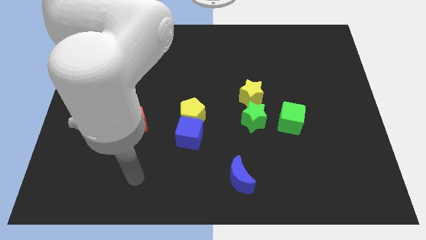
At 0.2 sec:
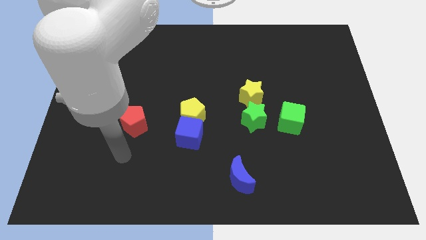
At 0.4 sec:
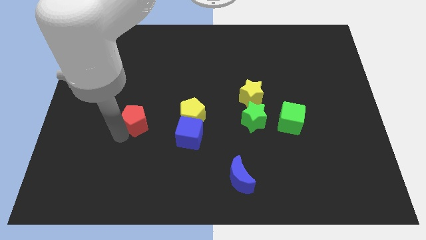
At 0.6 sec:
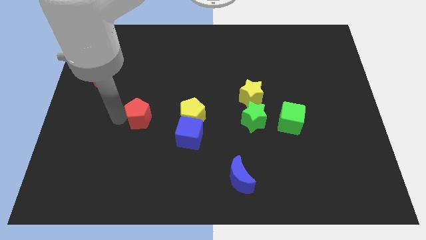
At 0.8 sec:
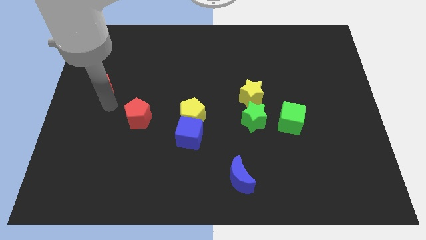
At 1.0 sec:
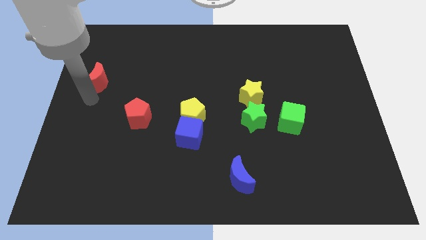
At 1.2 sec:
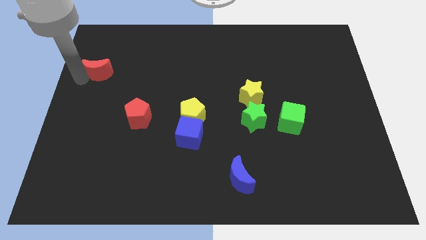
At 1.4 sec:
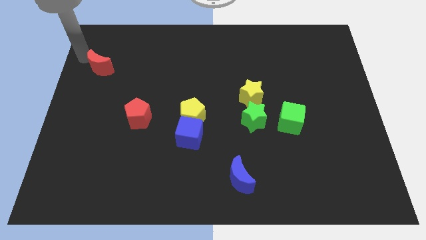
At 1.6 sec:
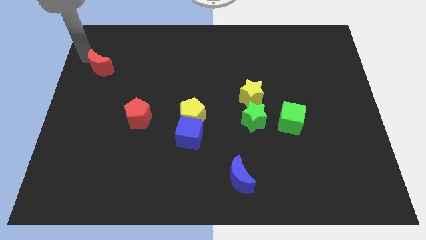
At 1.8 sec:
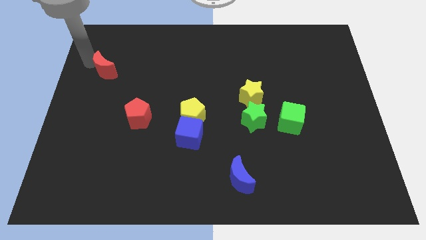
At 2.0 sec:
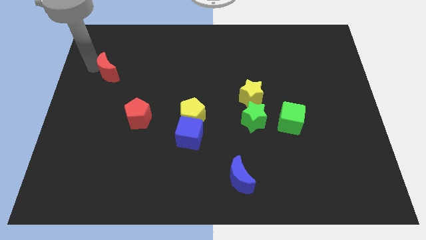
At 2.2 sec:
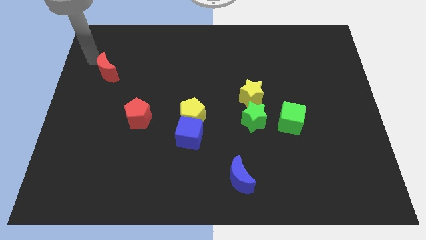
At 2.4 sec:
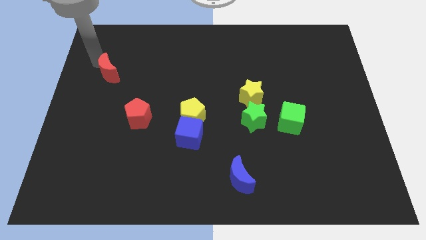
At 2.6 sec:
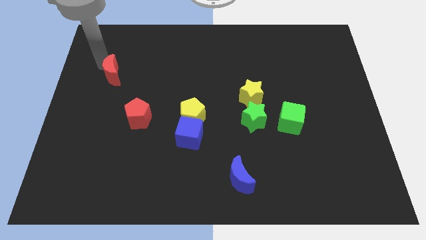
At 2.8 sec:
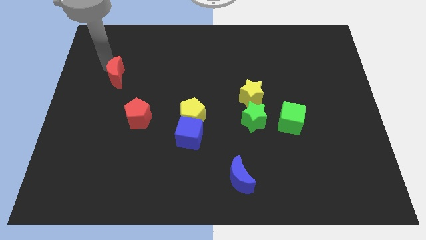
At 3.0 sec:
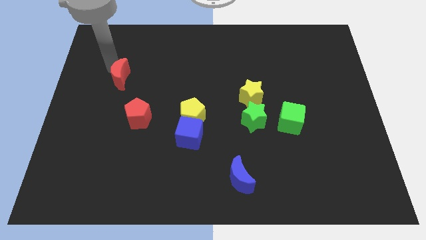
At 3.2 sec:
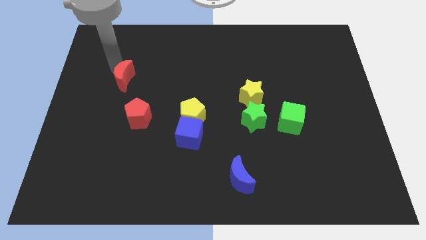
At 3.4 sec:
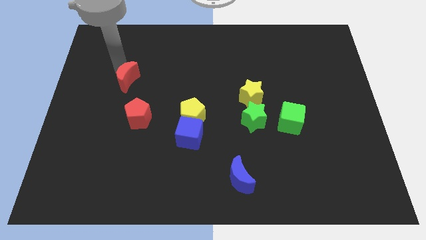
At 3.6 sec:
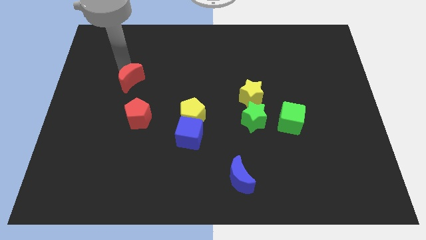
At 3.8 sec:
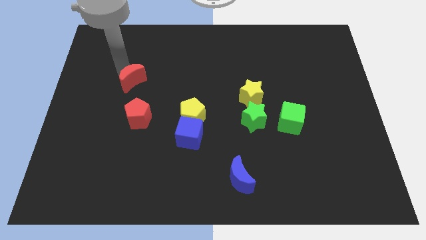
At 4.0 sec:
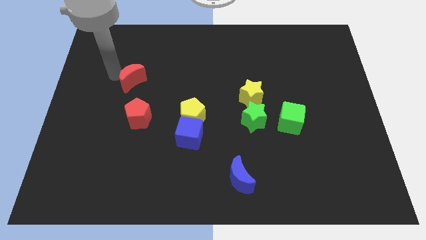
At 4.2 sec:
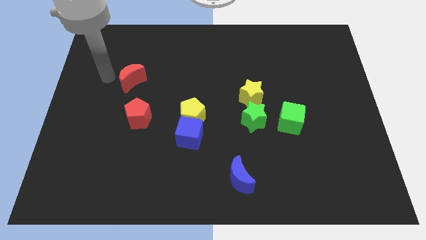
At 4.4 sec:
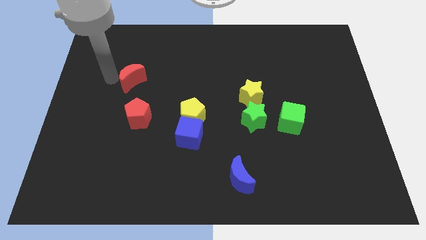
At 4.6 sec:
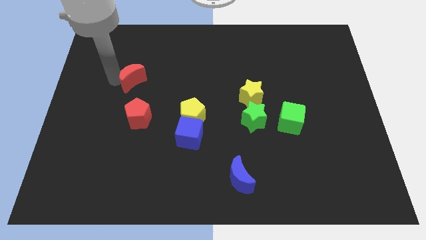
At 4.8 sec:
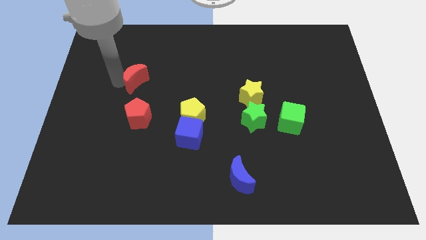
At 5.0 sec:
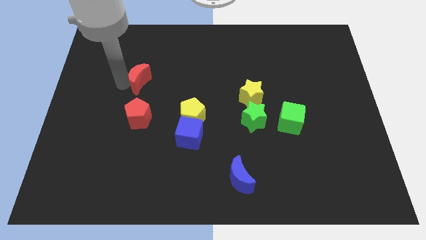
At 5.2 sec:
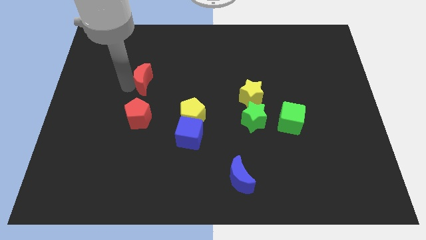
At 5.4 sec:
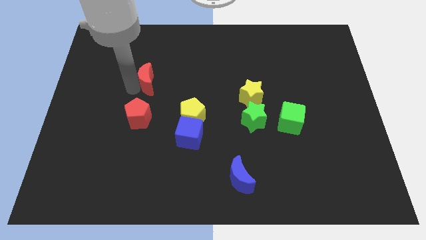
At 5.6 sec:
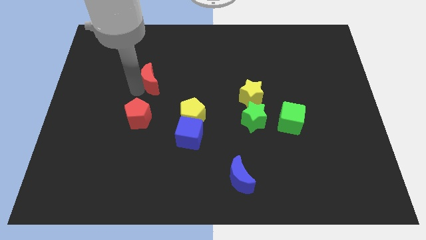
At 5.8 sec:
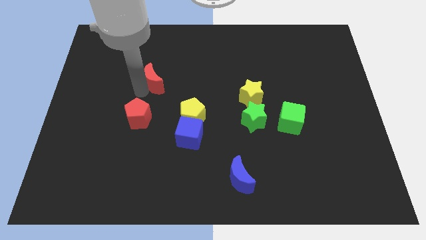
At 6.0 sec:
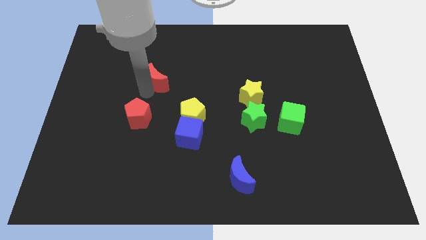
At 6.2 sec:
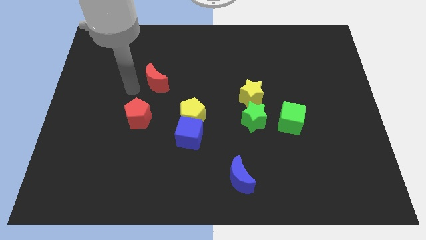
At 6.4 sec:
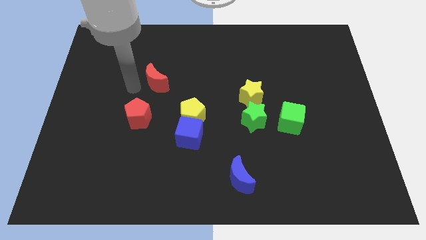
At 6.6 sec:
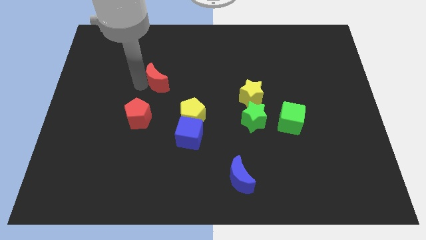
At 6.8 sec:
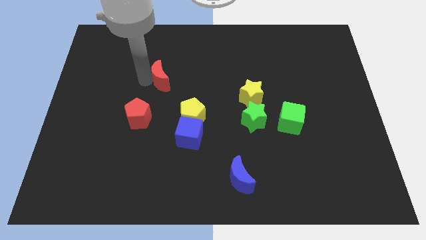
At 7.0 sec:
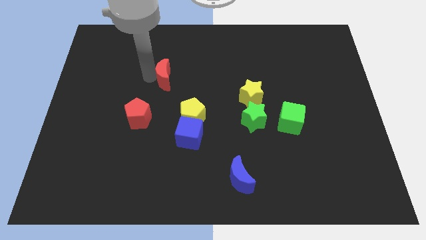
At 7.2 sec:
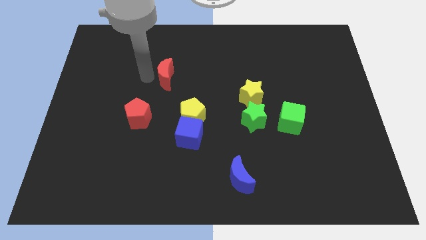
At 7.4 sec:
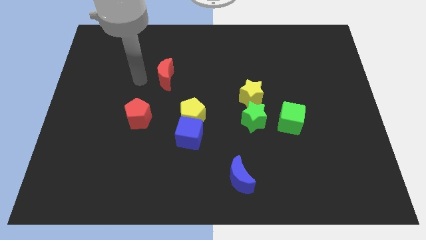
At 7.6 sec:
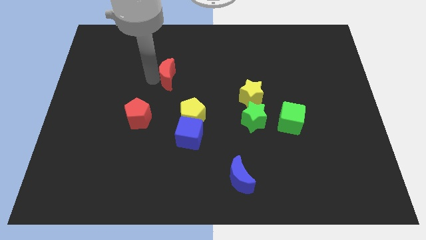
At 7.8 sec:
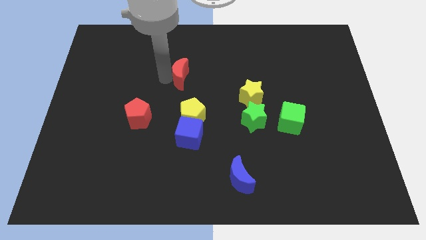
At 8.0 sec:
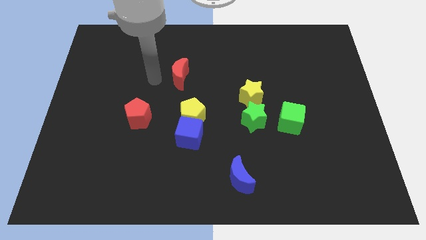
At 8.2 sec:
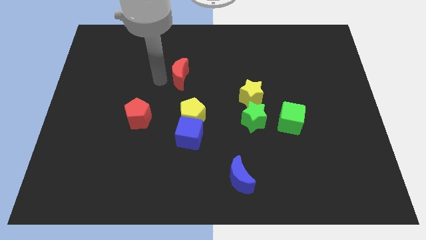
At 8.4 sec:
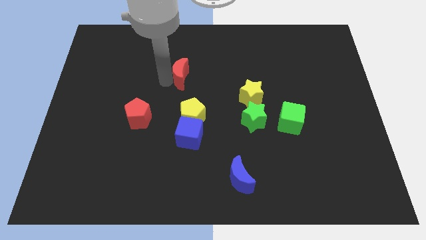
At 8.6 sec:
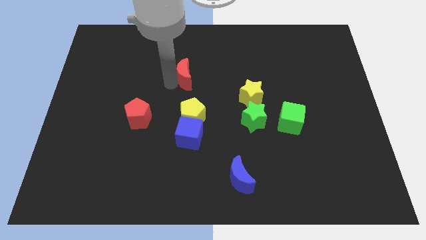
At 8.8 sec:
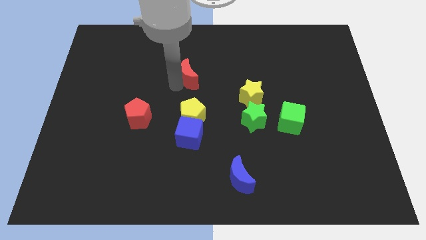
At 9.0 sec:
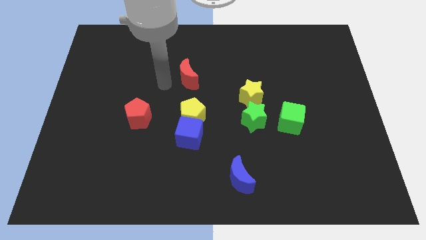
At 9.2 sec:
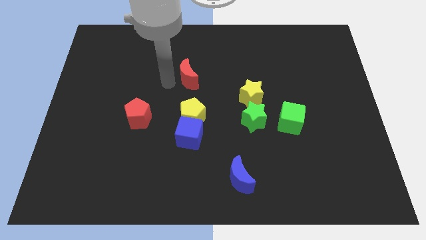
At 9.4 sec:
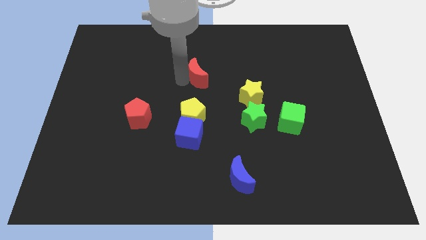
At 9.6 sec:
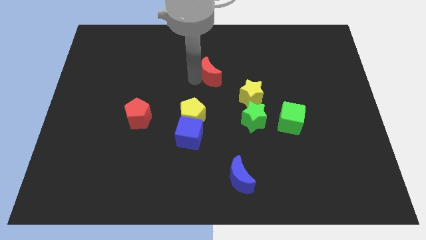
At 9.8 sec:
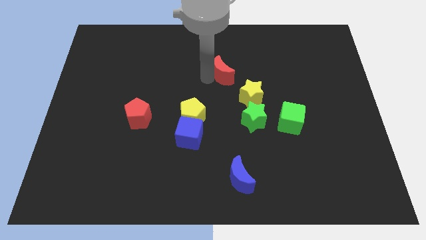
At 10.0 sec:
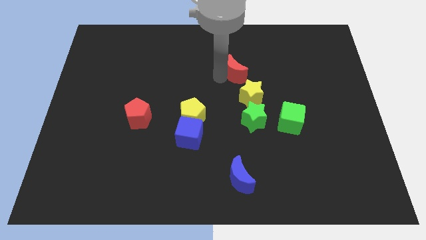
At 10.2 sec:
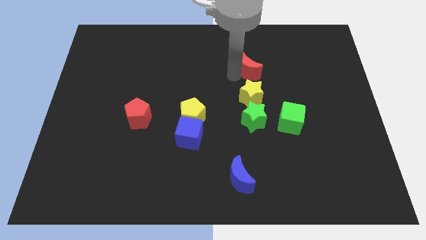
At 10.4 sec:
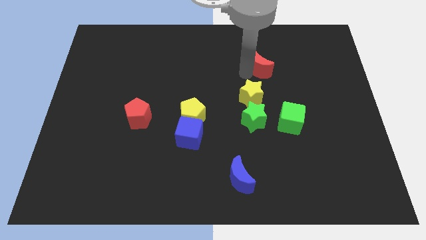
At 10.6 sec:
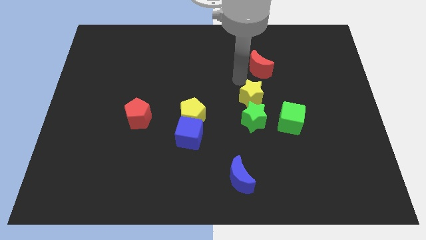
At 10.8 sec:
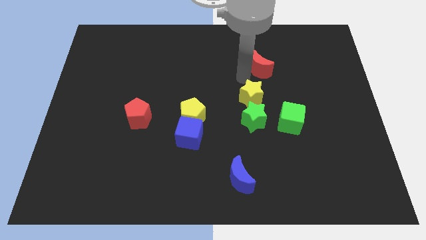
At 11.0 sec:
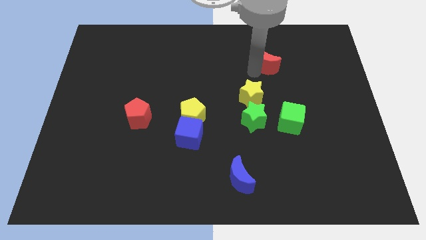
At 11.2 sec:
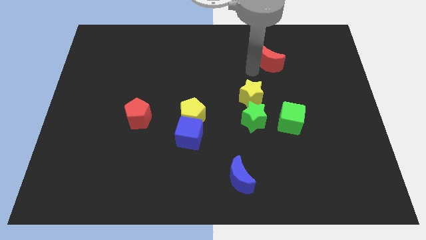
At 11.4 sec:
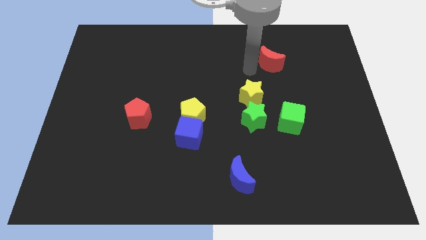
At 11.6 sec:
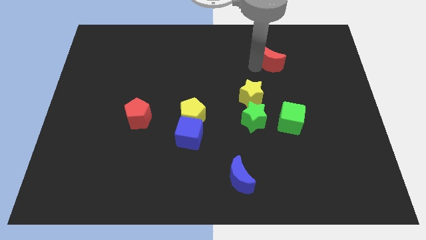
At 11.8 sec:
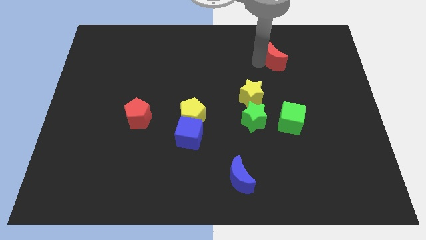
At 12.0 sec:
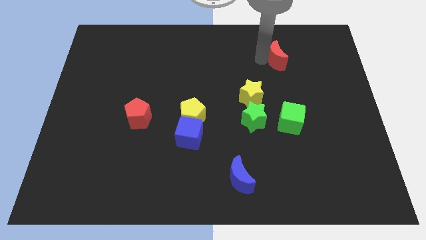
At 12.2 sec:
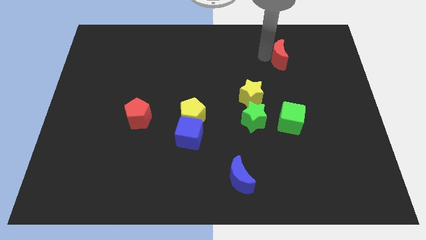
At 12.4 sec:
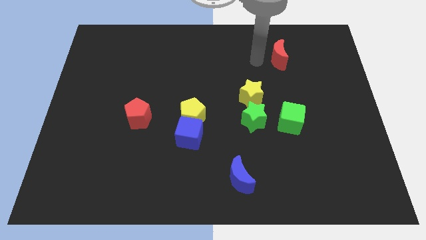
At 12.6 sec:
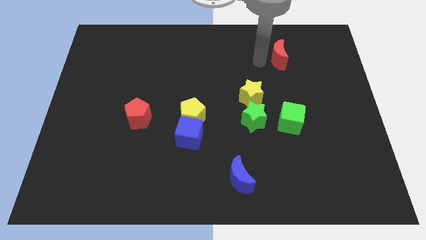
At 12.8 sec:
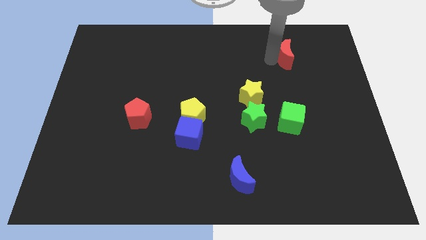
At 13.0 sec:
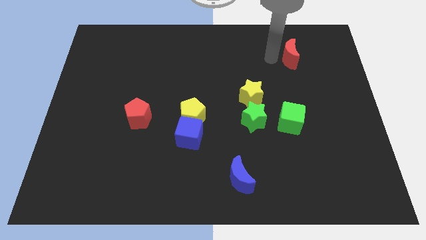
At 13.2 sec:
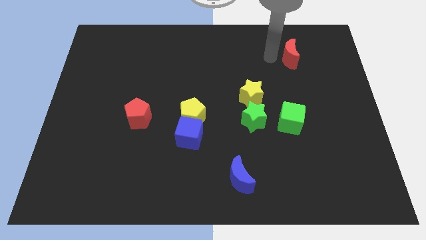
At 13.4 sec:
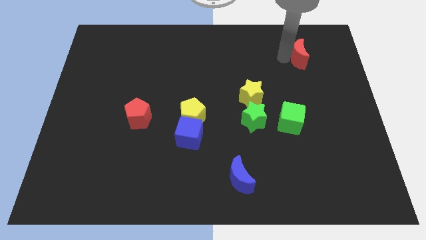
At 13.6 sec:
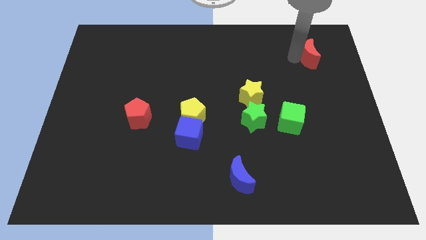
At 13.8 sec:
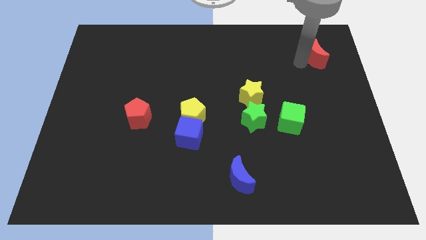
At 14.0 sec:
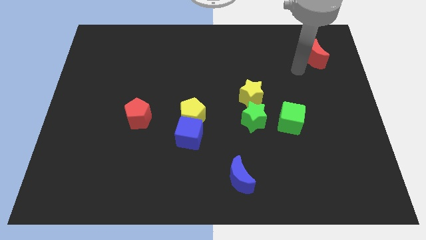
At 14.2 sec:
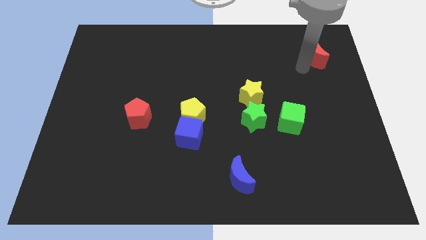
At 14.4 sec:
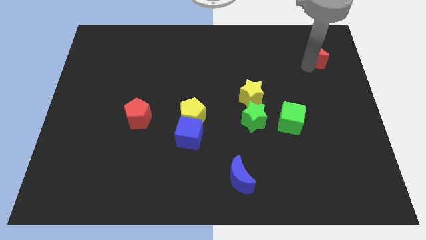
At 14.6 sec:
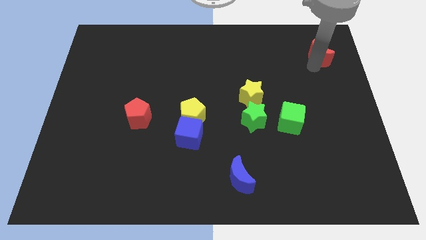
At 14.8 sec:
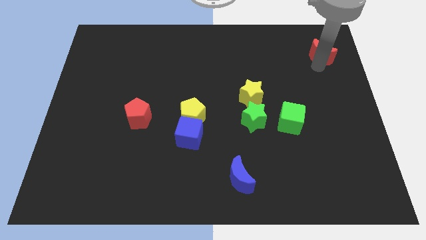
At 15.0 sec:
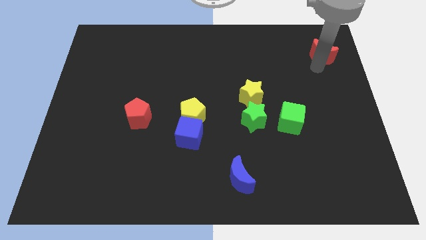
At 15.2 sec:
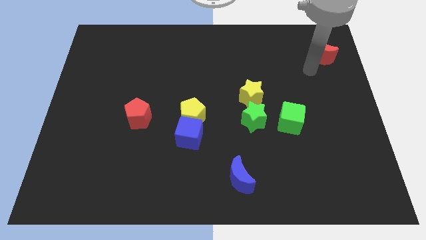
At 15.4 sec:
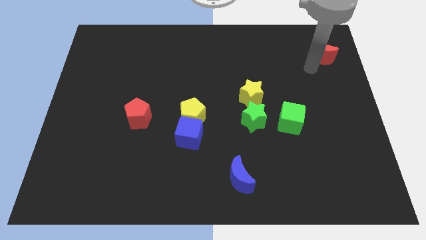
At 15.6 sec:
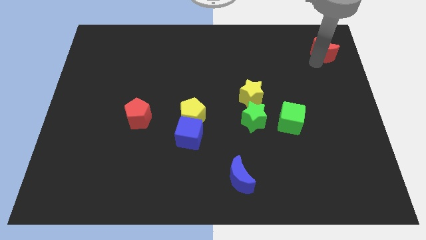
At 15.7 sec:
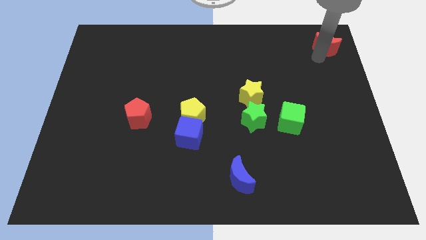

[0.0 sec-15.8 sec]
put the red moon to the top right
